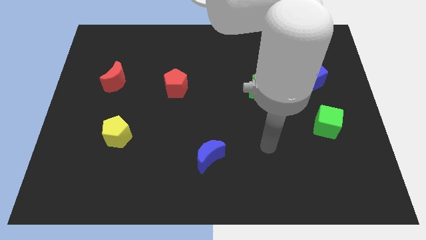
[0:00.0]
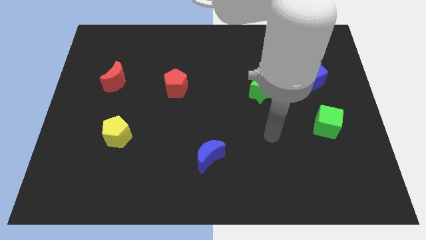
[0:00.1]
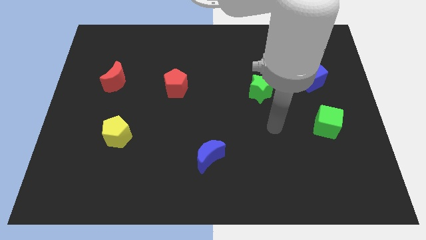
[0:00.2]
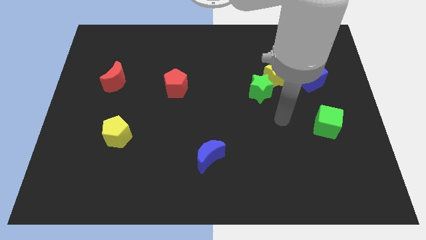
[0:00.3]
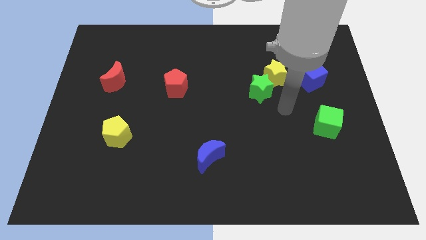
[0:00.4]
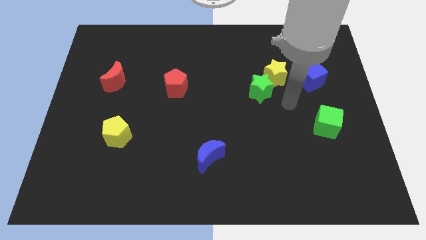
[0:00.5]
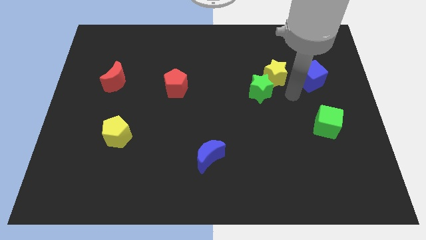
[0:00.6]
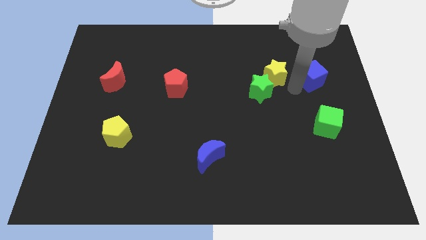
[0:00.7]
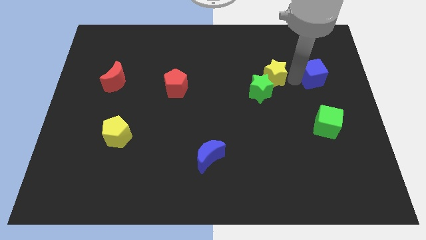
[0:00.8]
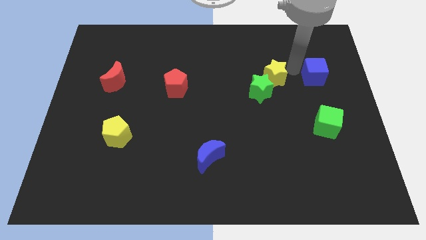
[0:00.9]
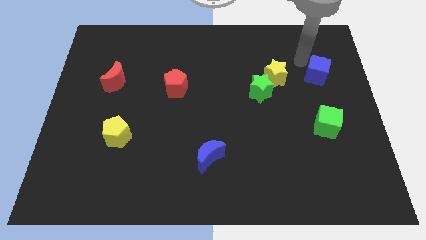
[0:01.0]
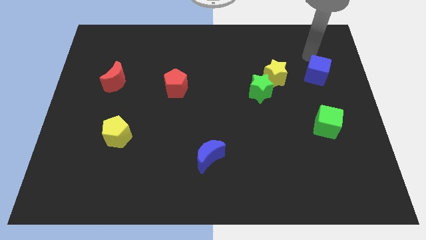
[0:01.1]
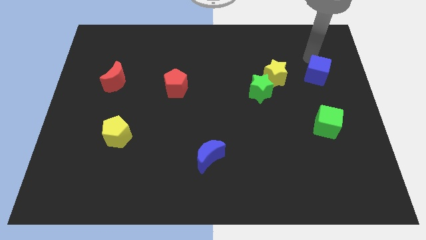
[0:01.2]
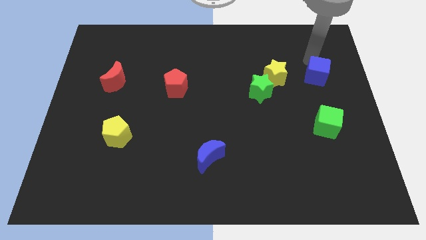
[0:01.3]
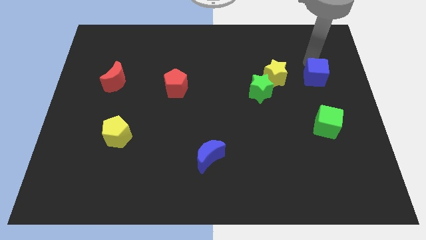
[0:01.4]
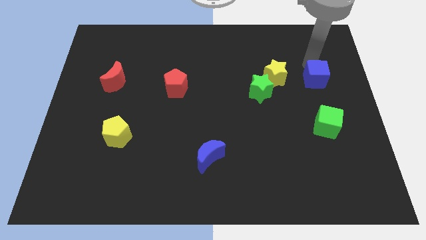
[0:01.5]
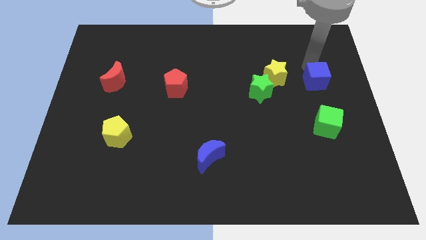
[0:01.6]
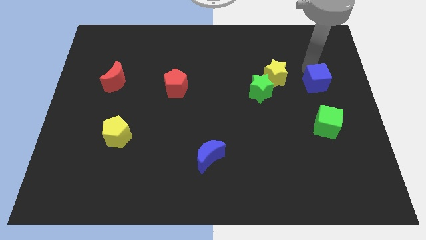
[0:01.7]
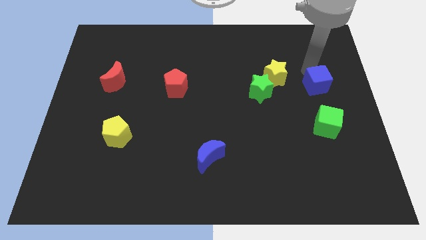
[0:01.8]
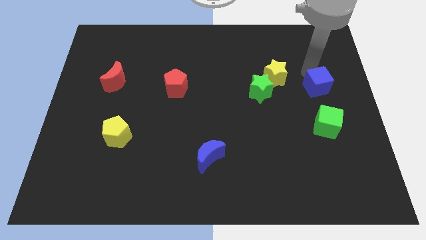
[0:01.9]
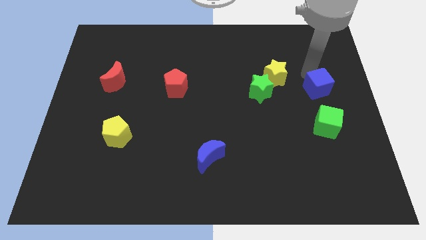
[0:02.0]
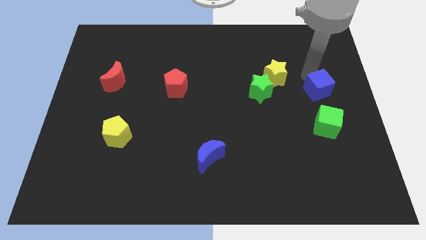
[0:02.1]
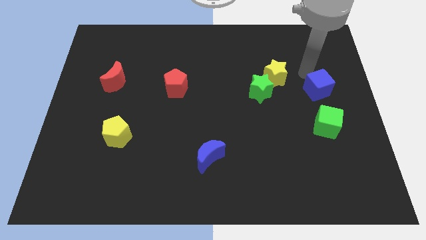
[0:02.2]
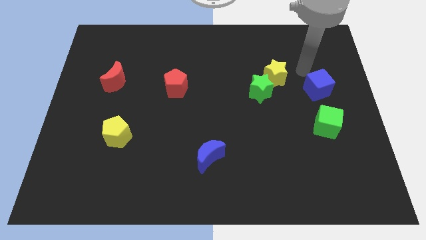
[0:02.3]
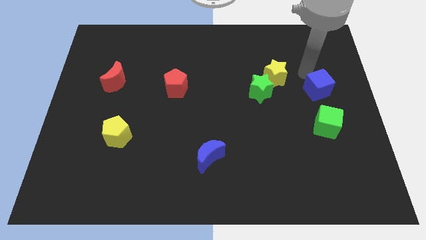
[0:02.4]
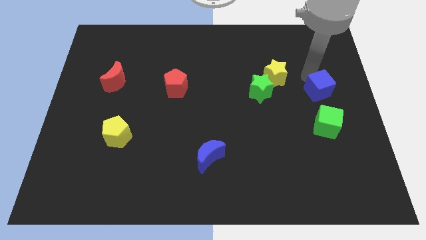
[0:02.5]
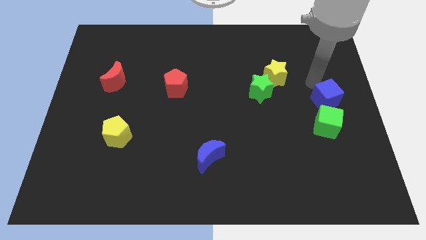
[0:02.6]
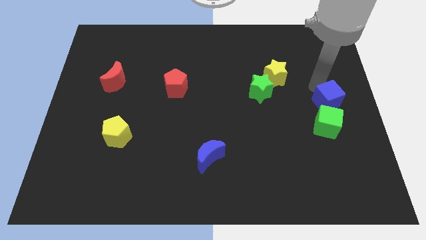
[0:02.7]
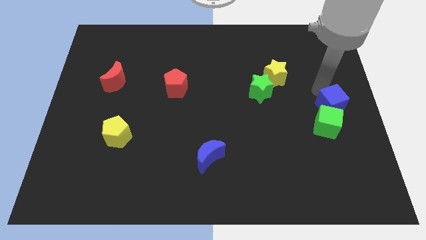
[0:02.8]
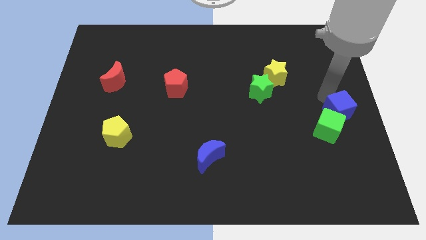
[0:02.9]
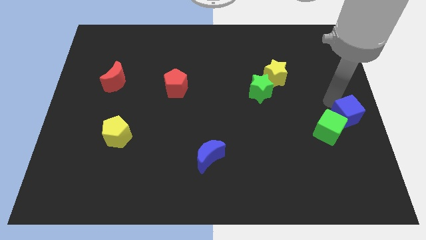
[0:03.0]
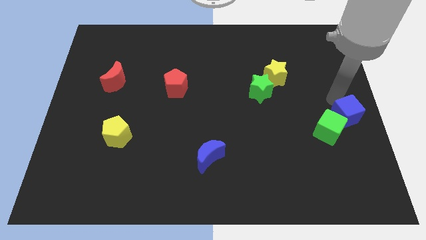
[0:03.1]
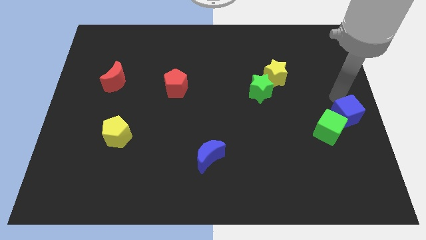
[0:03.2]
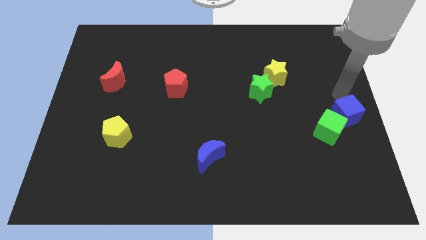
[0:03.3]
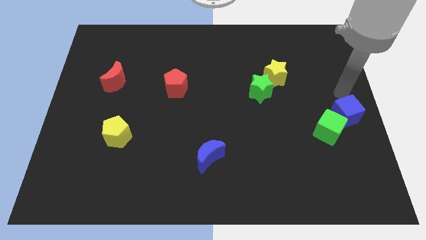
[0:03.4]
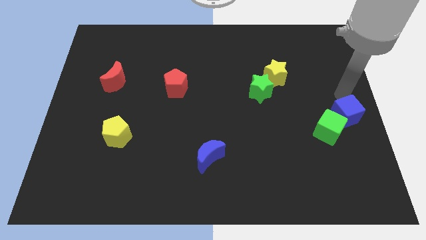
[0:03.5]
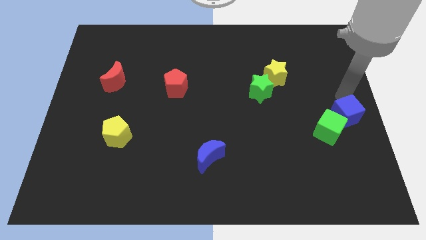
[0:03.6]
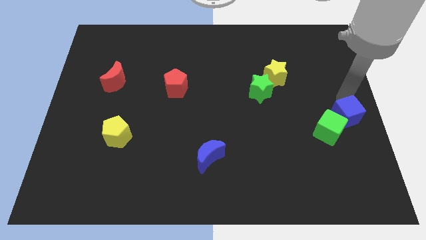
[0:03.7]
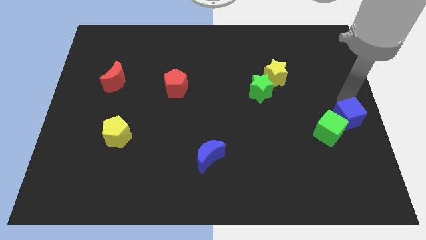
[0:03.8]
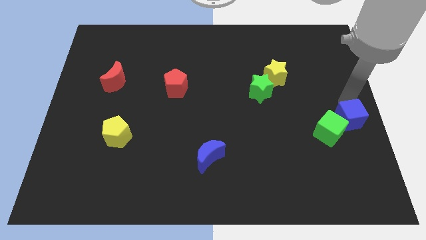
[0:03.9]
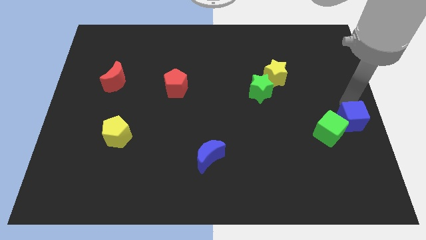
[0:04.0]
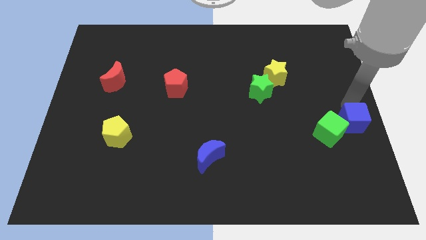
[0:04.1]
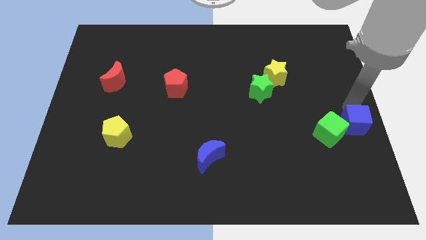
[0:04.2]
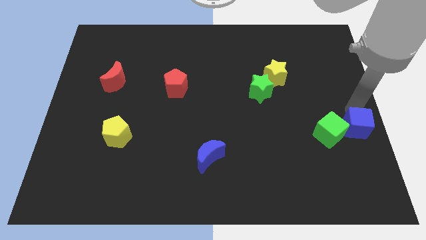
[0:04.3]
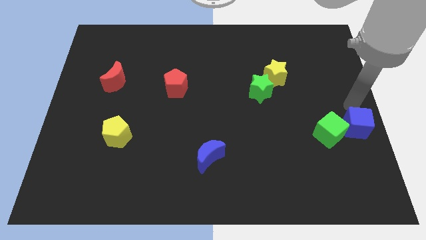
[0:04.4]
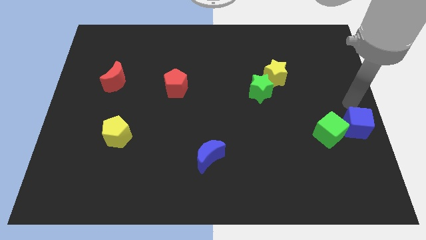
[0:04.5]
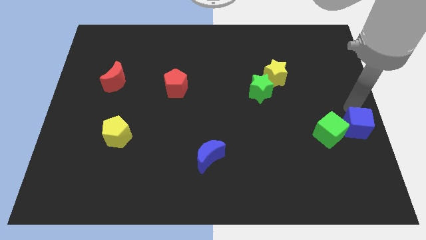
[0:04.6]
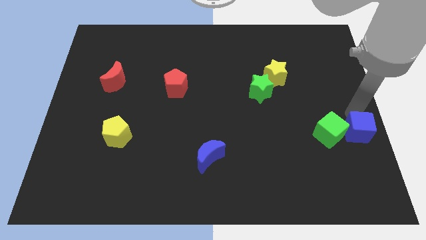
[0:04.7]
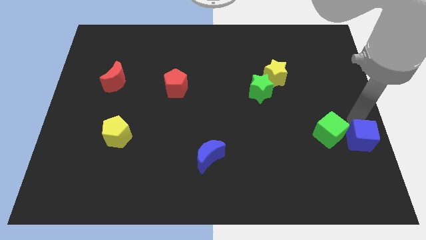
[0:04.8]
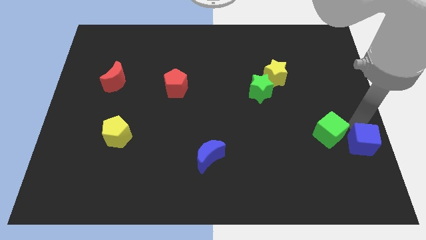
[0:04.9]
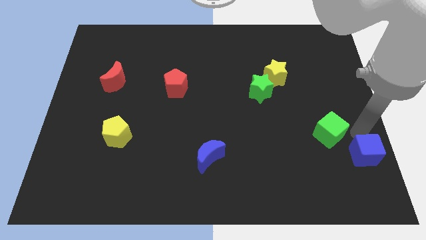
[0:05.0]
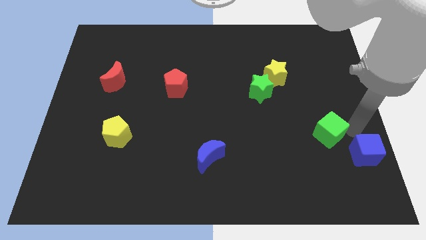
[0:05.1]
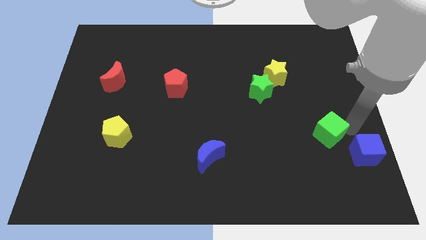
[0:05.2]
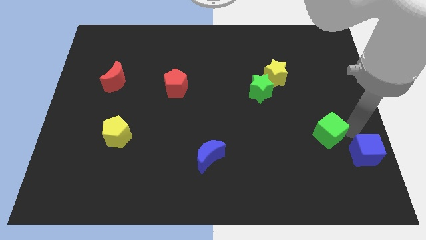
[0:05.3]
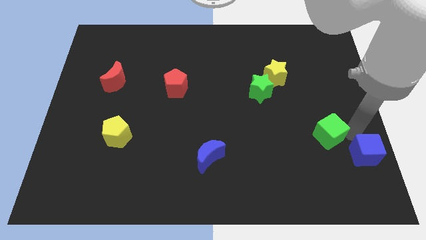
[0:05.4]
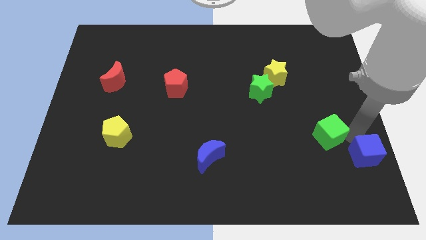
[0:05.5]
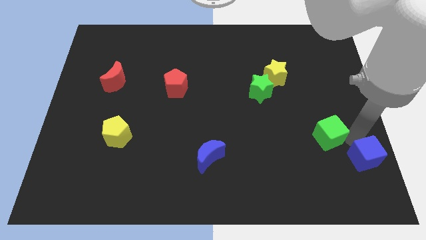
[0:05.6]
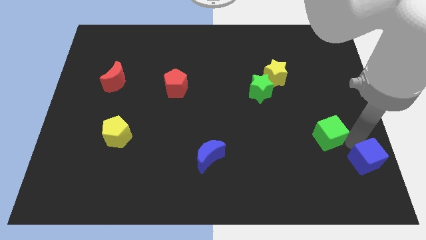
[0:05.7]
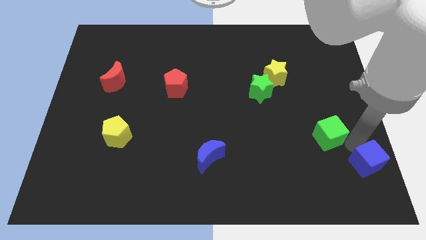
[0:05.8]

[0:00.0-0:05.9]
slide the blue cube to the bottom right corner

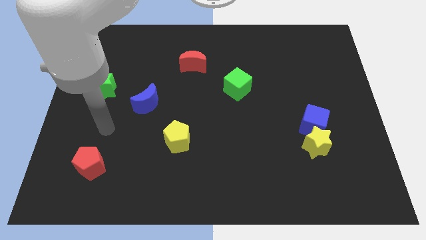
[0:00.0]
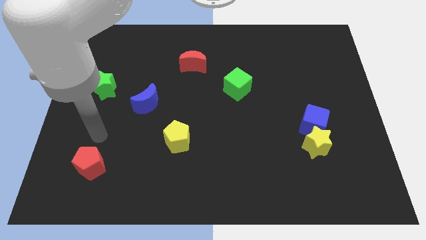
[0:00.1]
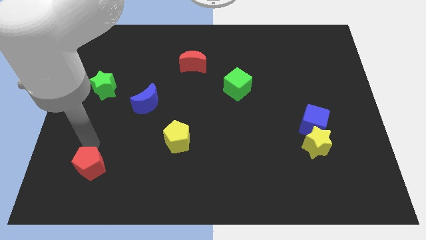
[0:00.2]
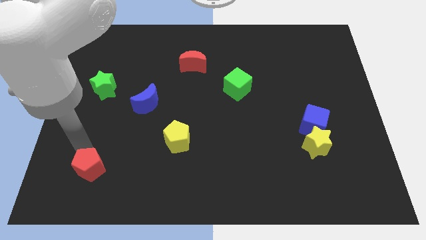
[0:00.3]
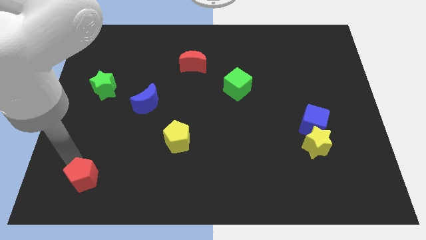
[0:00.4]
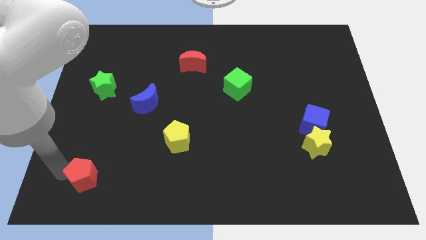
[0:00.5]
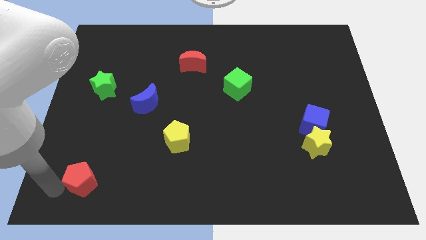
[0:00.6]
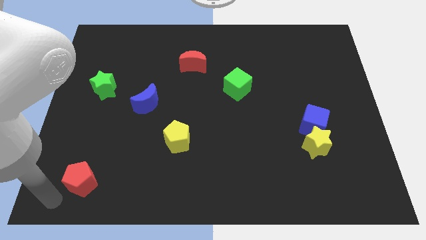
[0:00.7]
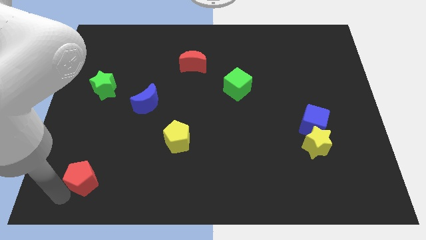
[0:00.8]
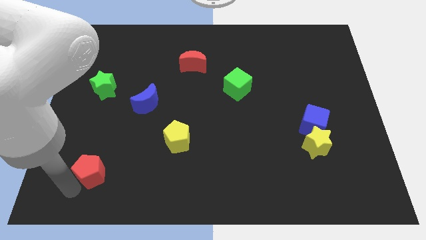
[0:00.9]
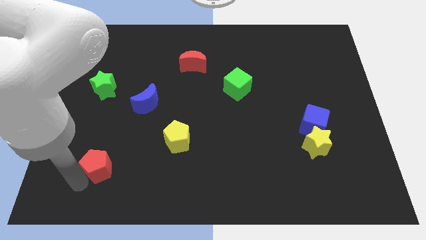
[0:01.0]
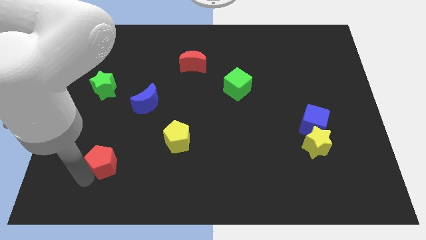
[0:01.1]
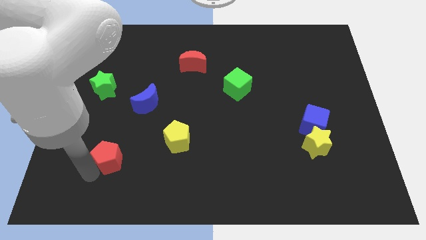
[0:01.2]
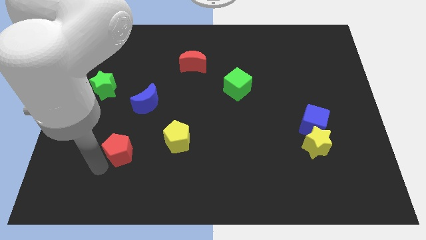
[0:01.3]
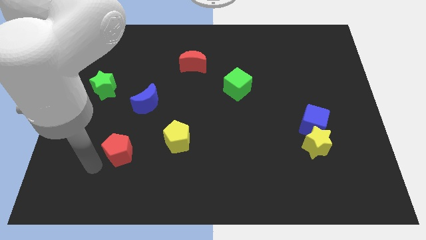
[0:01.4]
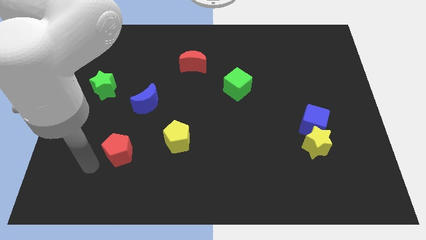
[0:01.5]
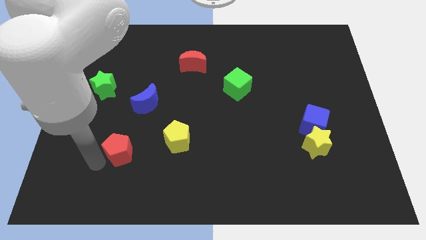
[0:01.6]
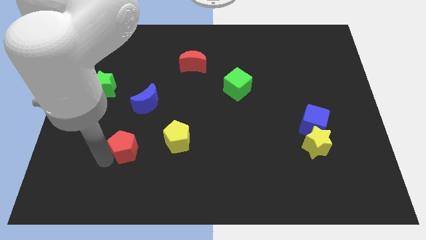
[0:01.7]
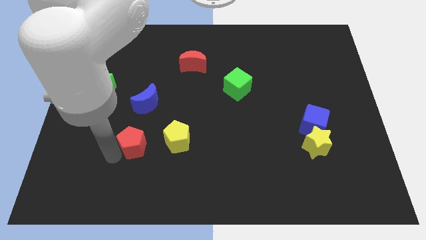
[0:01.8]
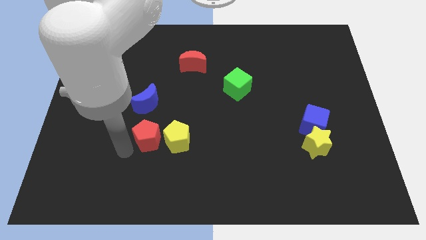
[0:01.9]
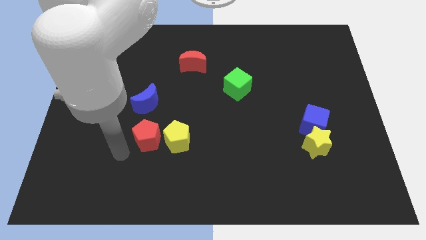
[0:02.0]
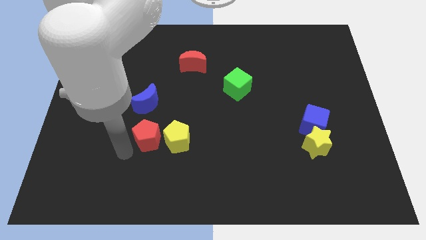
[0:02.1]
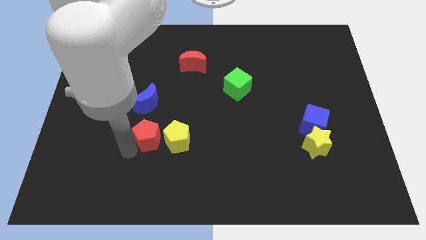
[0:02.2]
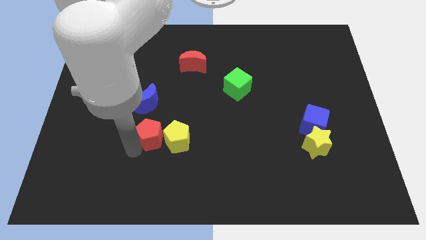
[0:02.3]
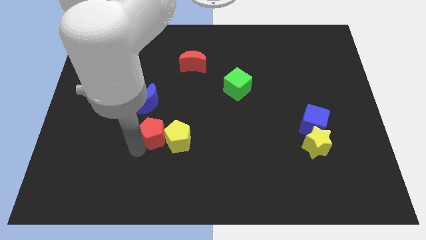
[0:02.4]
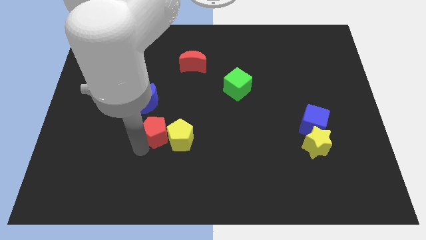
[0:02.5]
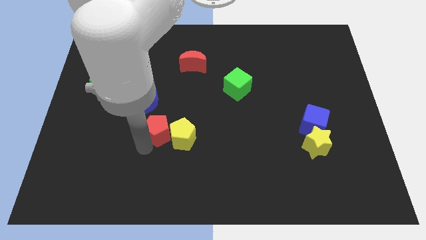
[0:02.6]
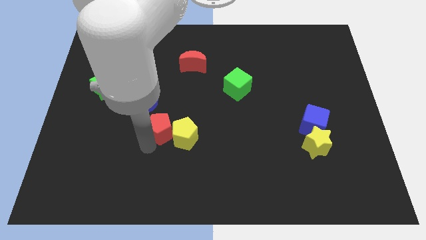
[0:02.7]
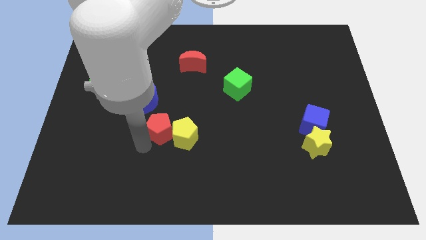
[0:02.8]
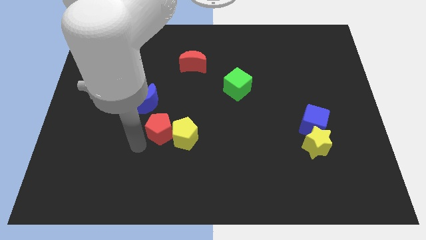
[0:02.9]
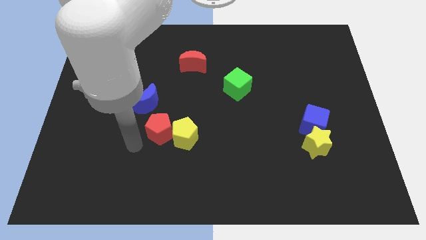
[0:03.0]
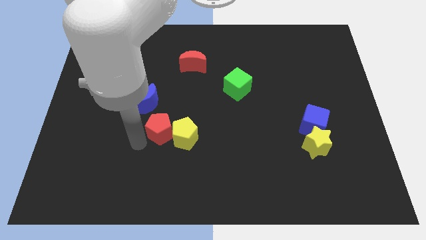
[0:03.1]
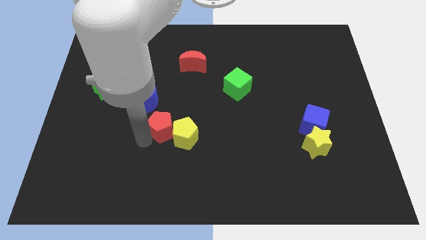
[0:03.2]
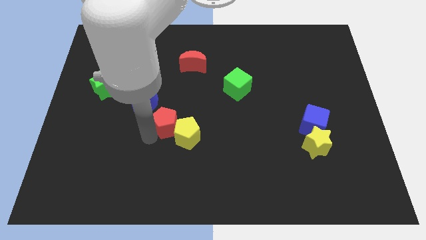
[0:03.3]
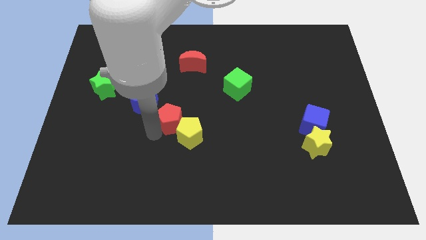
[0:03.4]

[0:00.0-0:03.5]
slide the red pentagon to the middle
